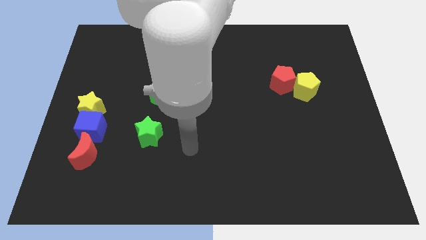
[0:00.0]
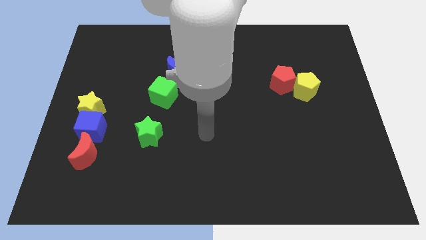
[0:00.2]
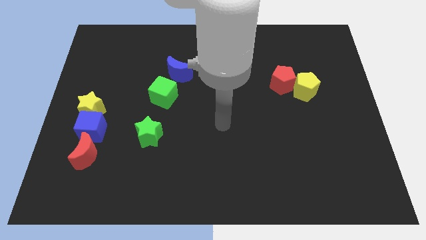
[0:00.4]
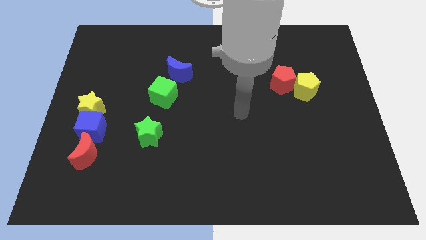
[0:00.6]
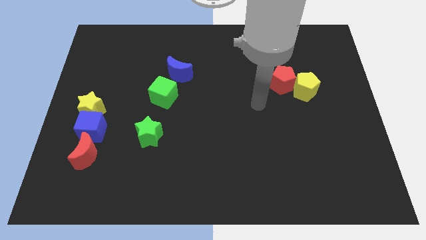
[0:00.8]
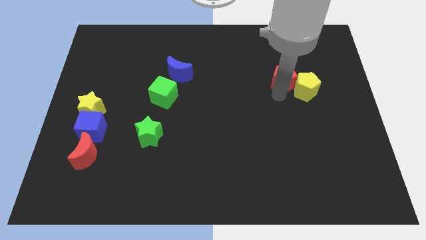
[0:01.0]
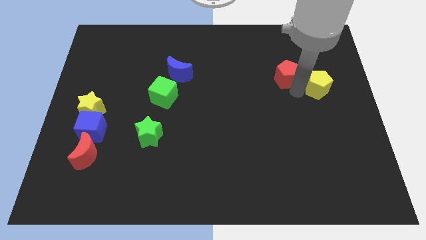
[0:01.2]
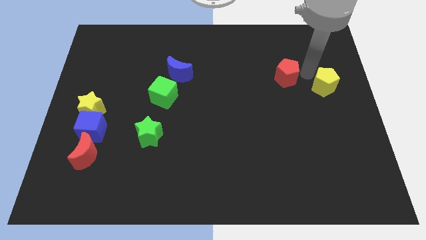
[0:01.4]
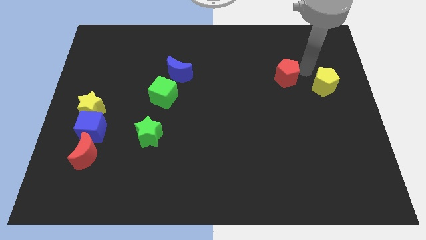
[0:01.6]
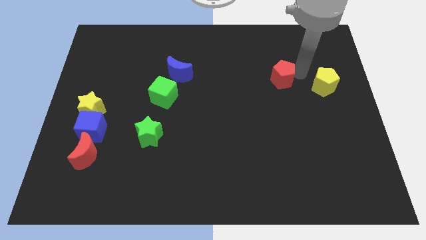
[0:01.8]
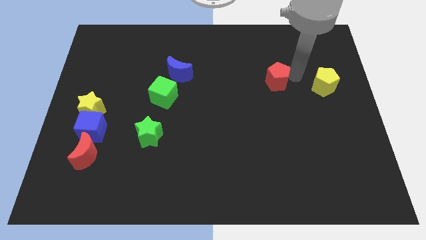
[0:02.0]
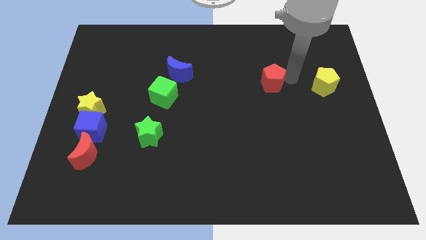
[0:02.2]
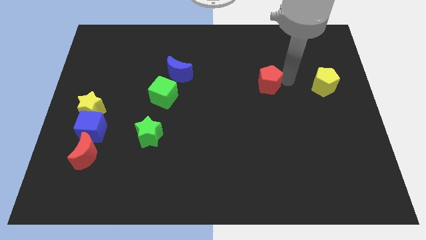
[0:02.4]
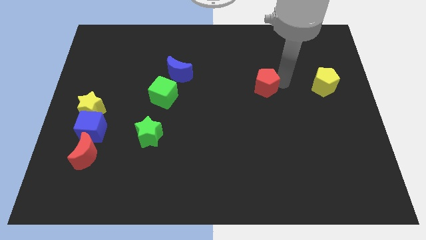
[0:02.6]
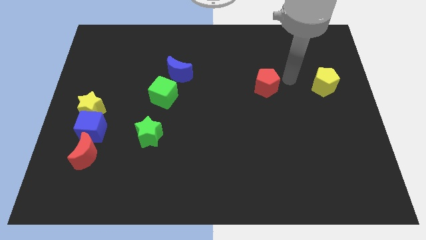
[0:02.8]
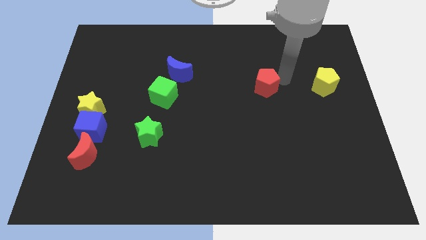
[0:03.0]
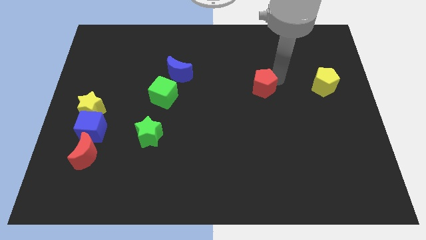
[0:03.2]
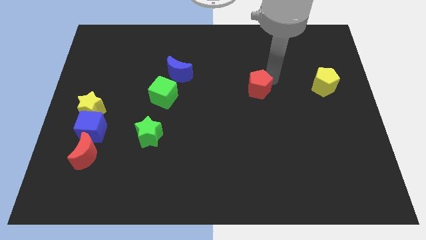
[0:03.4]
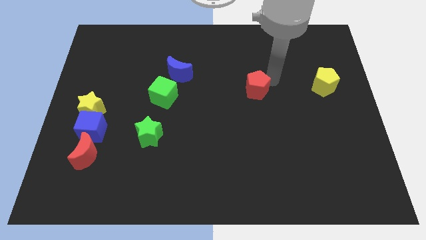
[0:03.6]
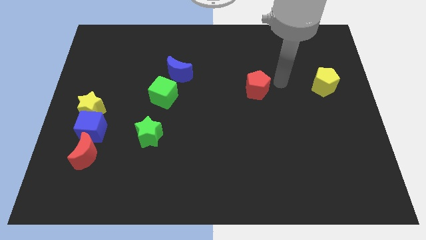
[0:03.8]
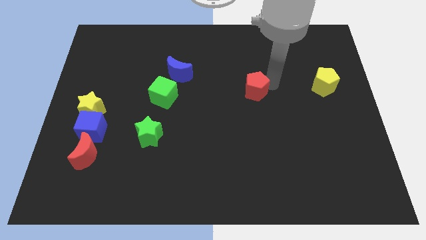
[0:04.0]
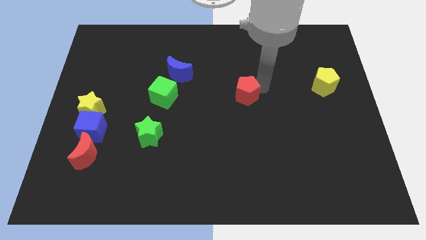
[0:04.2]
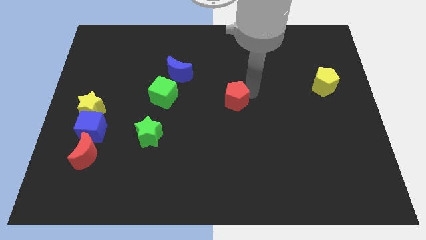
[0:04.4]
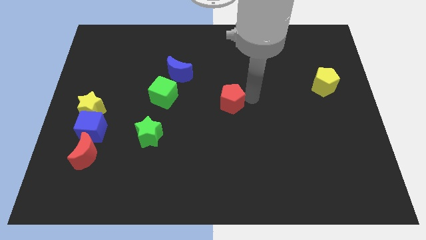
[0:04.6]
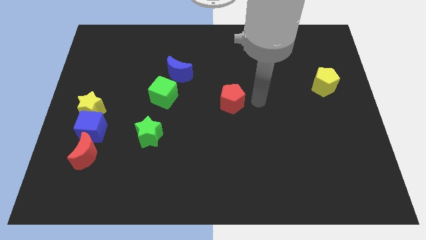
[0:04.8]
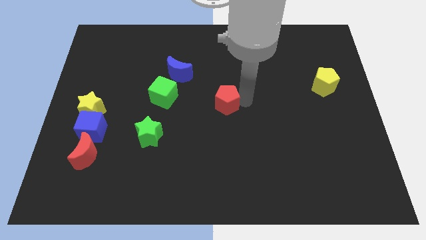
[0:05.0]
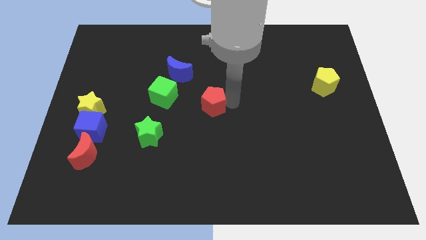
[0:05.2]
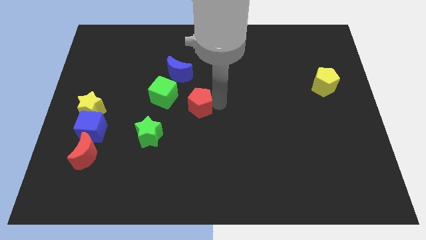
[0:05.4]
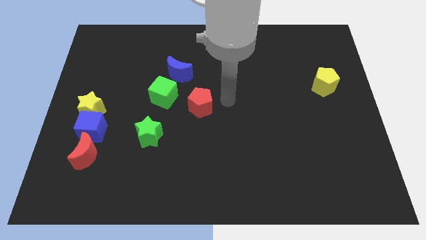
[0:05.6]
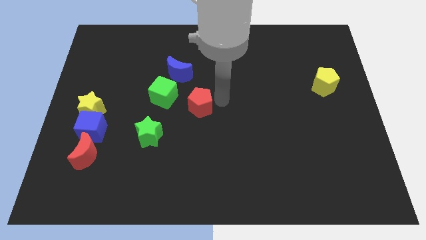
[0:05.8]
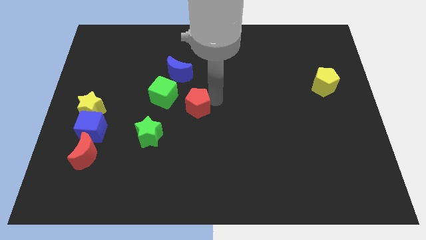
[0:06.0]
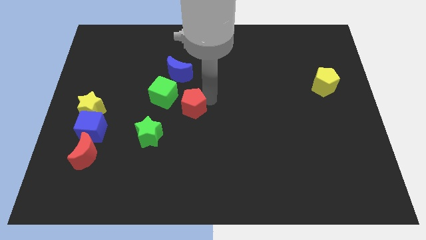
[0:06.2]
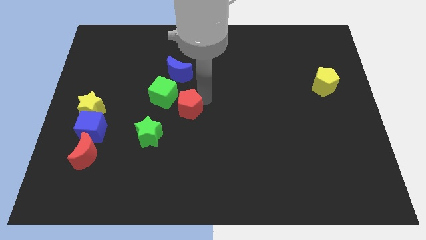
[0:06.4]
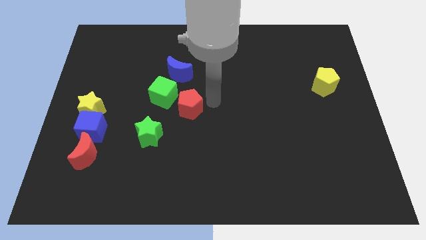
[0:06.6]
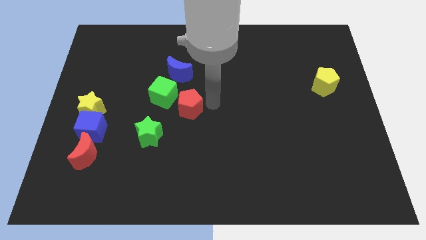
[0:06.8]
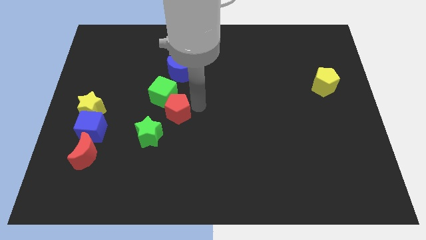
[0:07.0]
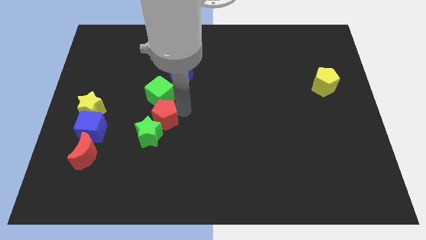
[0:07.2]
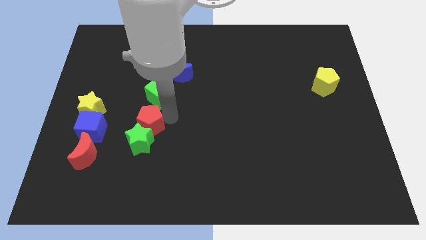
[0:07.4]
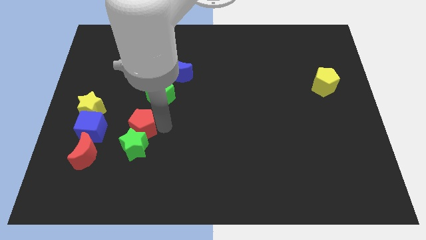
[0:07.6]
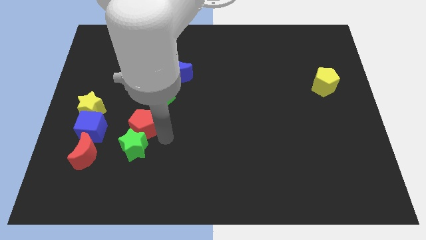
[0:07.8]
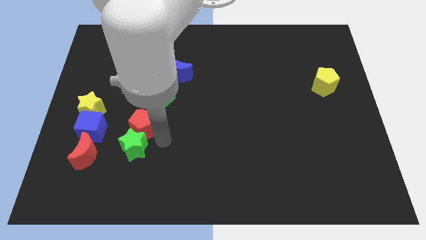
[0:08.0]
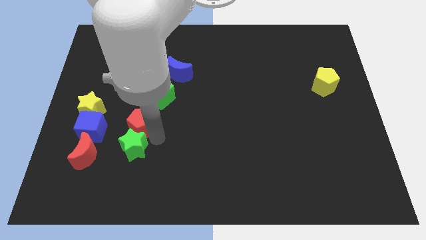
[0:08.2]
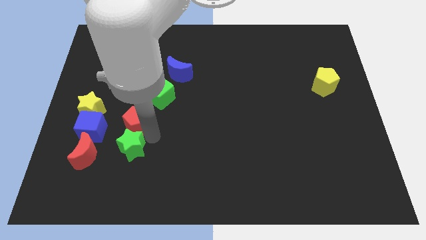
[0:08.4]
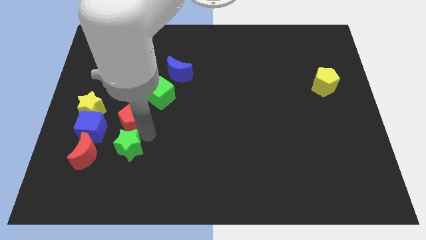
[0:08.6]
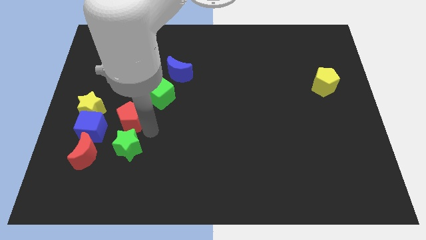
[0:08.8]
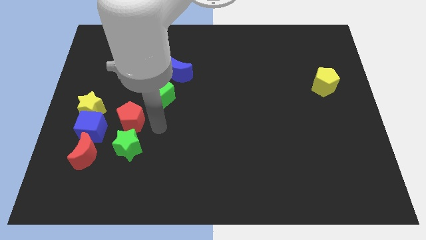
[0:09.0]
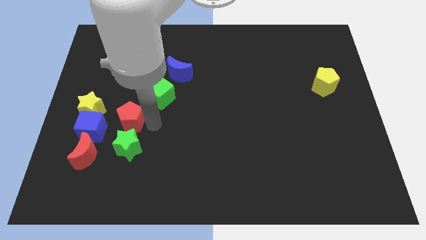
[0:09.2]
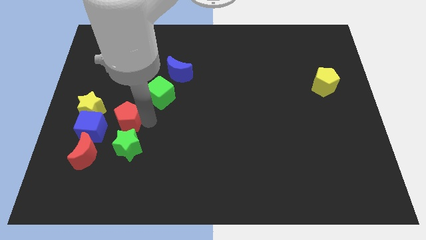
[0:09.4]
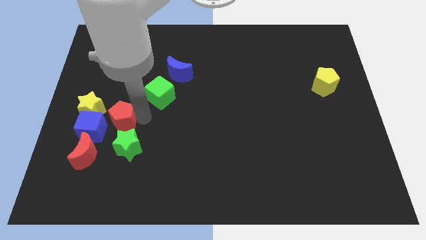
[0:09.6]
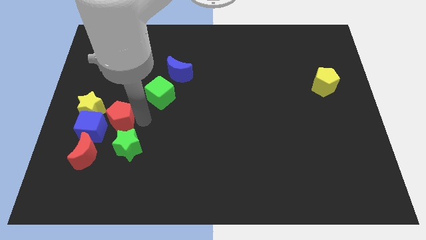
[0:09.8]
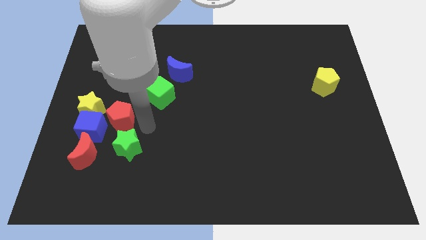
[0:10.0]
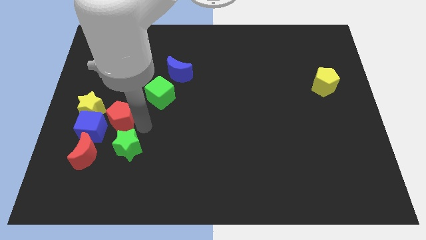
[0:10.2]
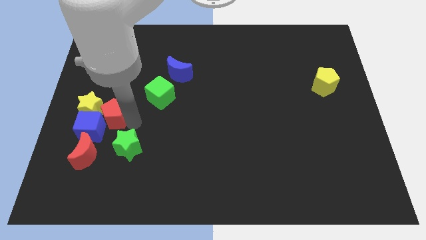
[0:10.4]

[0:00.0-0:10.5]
put the red pentagon to the yellow star

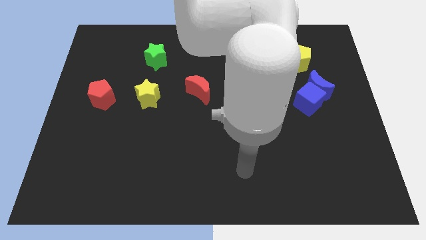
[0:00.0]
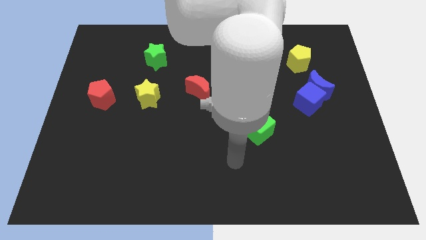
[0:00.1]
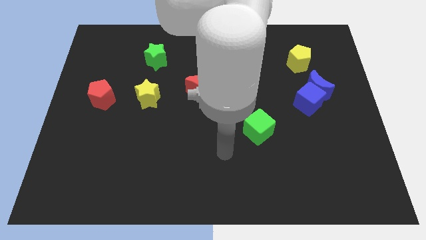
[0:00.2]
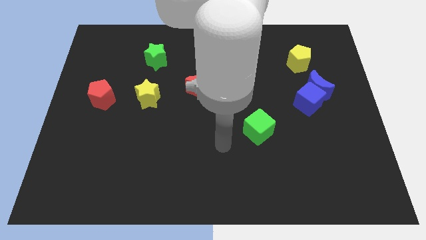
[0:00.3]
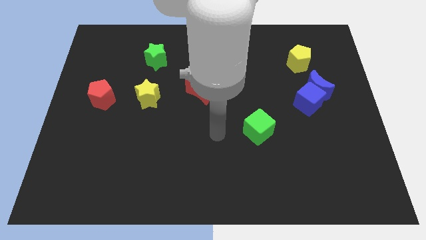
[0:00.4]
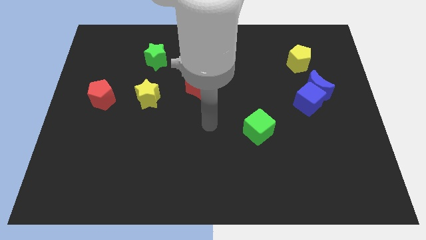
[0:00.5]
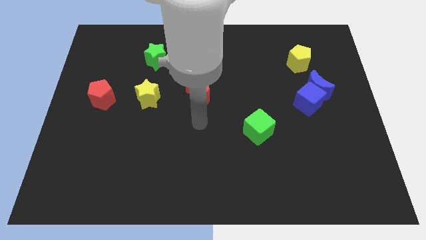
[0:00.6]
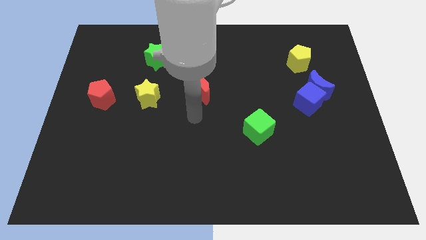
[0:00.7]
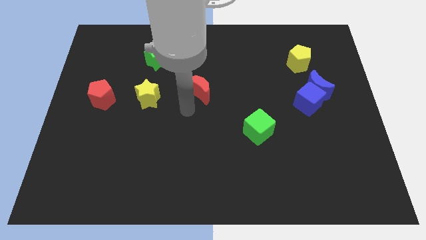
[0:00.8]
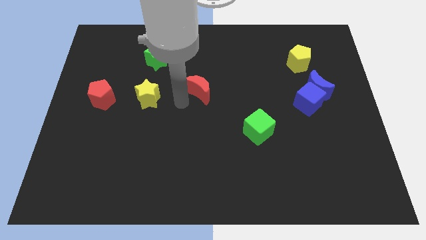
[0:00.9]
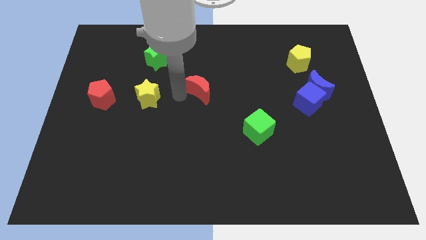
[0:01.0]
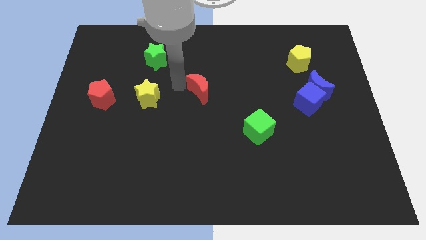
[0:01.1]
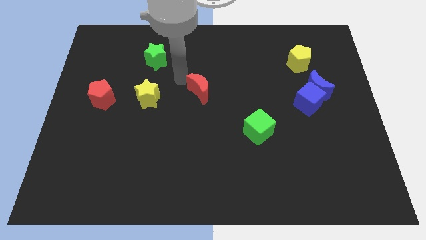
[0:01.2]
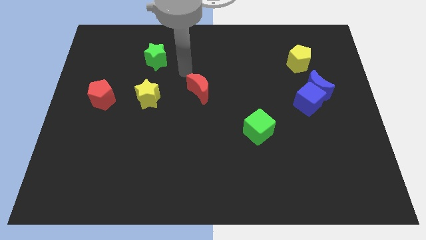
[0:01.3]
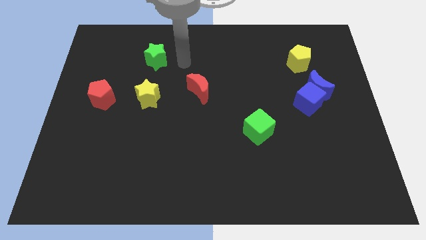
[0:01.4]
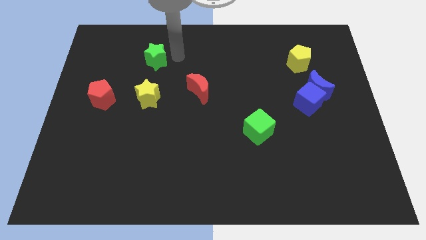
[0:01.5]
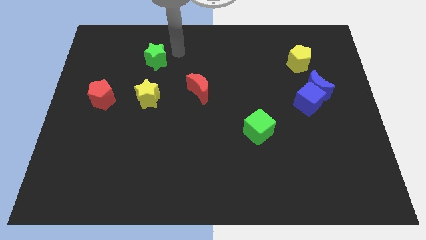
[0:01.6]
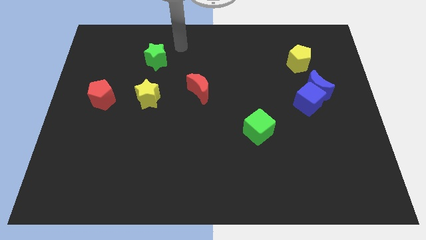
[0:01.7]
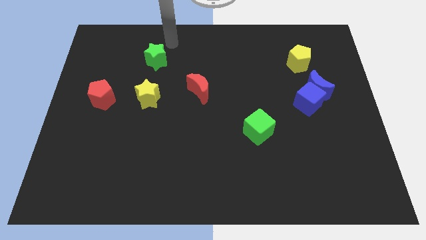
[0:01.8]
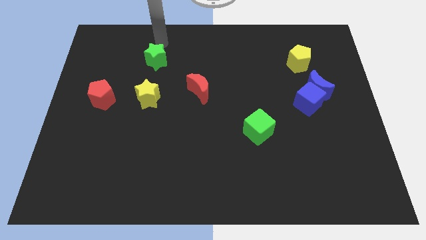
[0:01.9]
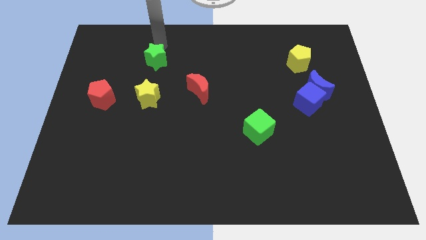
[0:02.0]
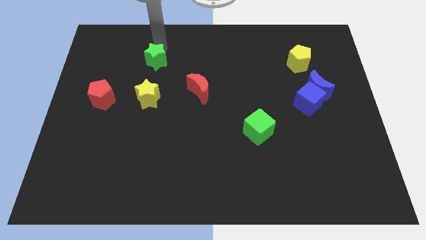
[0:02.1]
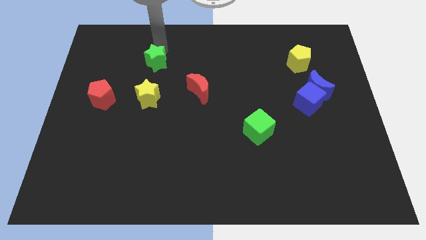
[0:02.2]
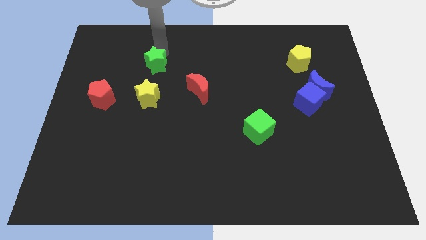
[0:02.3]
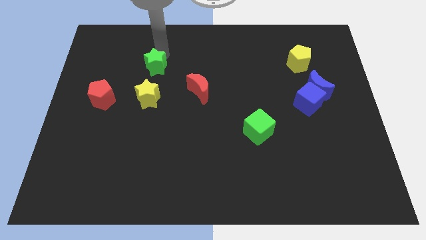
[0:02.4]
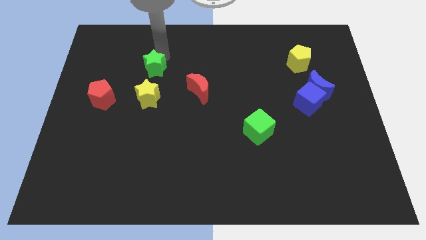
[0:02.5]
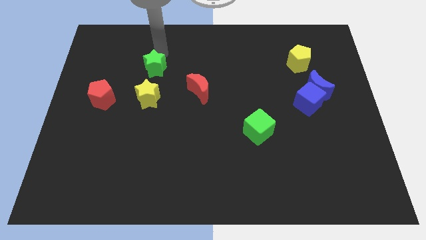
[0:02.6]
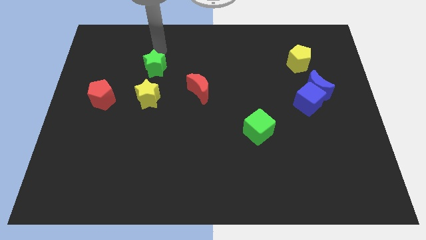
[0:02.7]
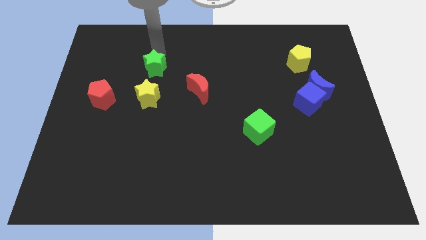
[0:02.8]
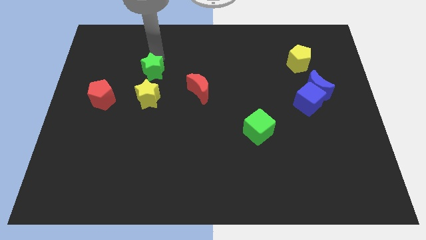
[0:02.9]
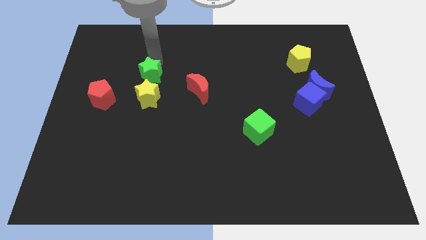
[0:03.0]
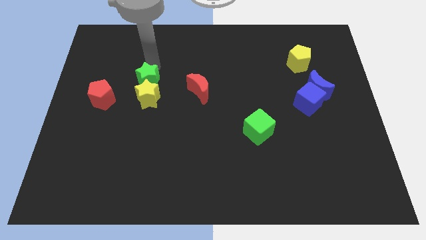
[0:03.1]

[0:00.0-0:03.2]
slide the green star close to the yellow star
